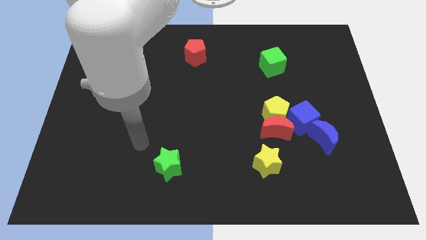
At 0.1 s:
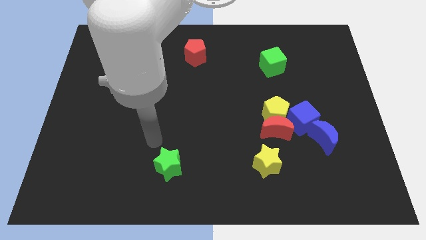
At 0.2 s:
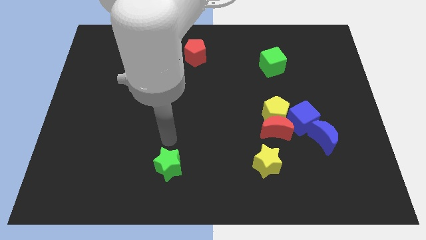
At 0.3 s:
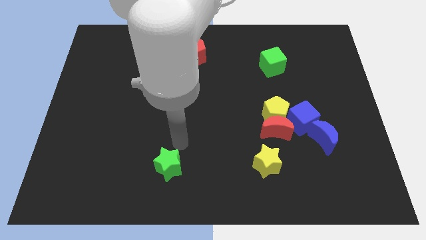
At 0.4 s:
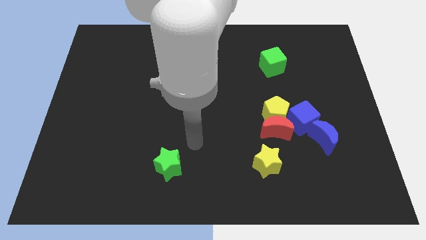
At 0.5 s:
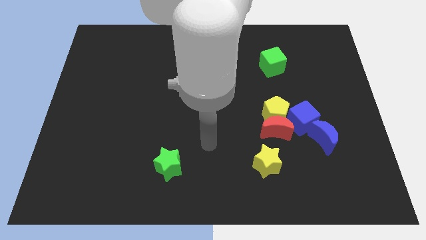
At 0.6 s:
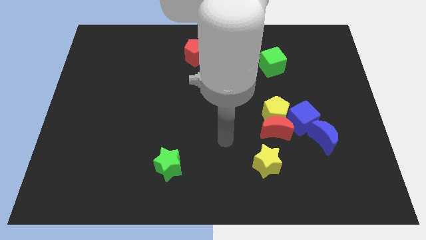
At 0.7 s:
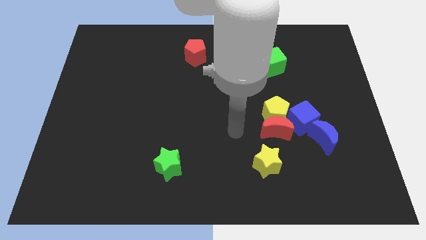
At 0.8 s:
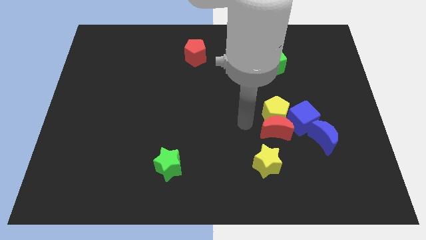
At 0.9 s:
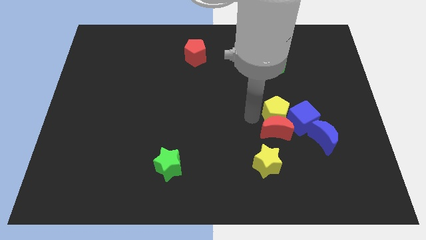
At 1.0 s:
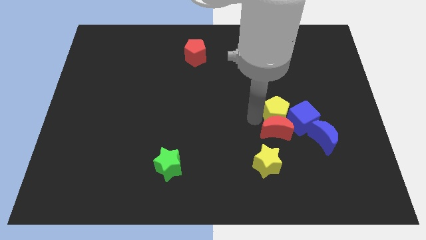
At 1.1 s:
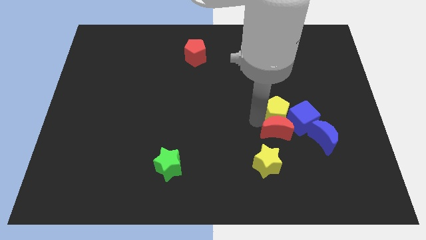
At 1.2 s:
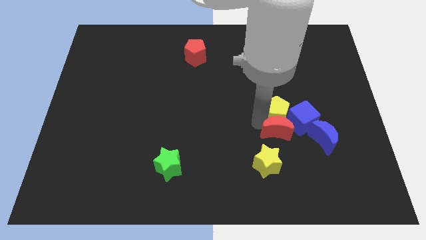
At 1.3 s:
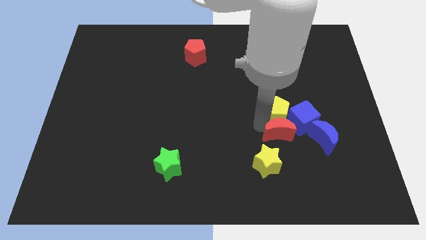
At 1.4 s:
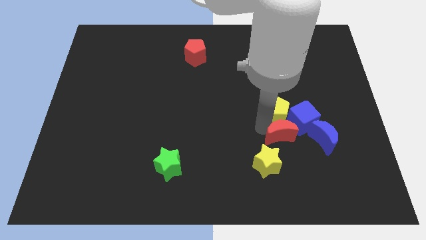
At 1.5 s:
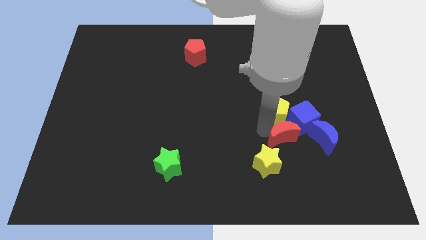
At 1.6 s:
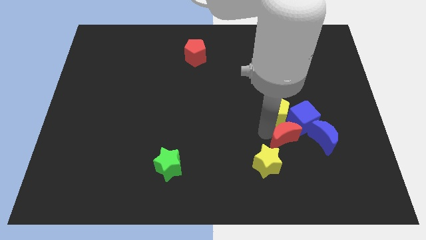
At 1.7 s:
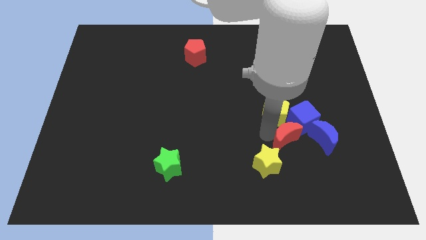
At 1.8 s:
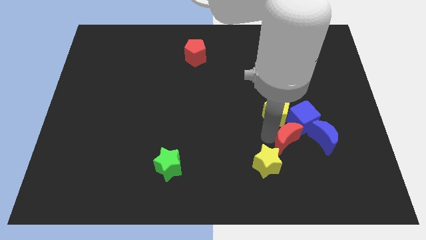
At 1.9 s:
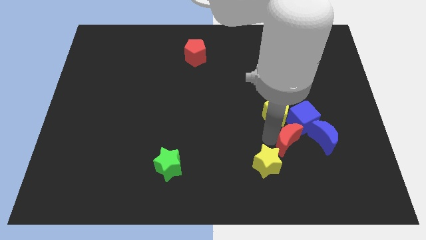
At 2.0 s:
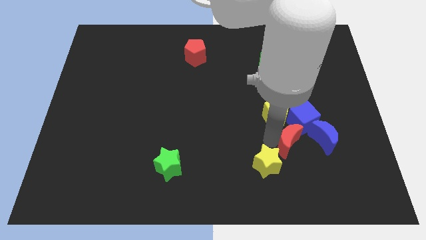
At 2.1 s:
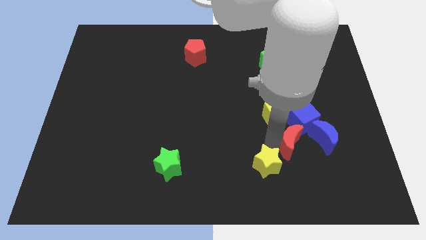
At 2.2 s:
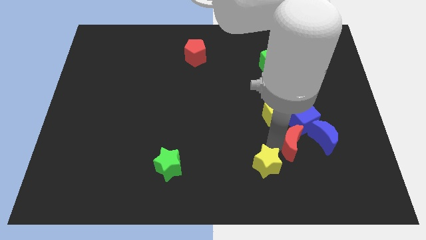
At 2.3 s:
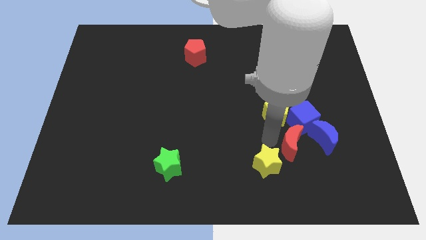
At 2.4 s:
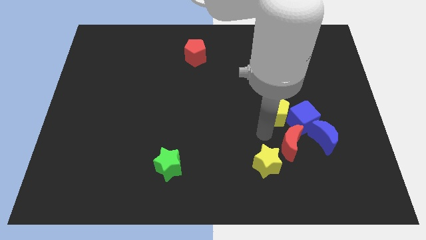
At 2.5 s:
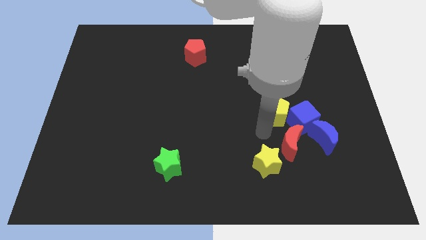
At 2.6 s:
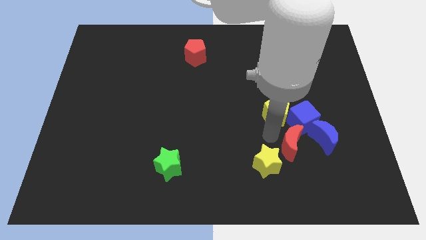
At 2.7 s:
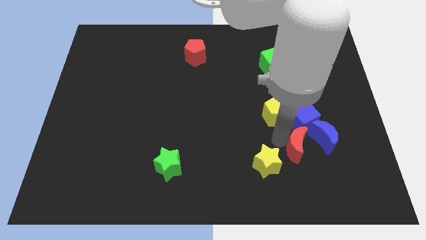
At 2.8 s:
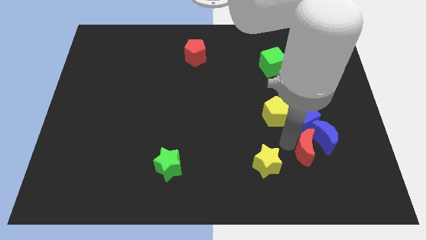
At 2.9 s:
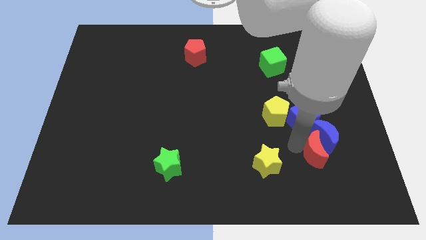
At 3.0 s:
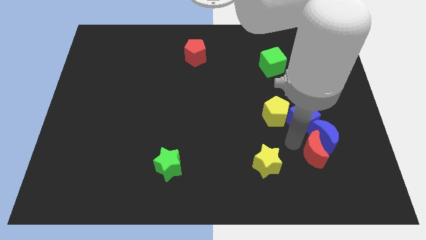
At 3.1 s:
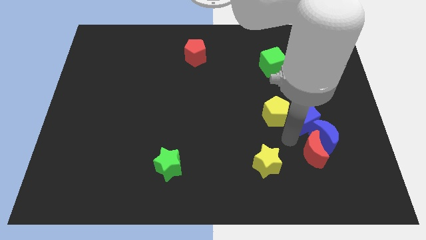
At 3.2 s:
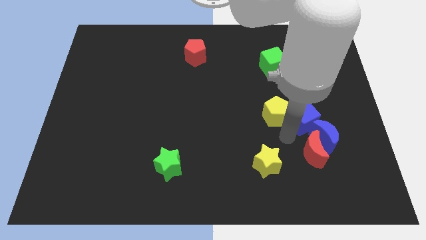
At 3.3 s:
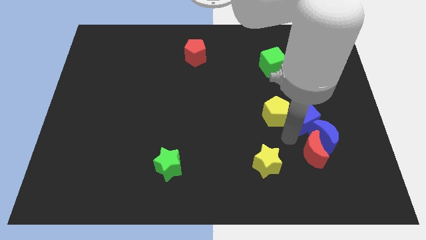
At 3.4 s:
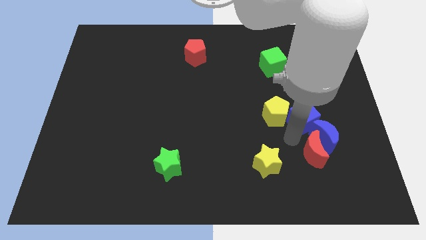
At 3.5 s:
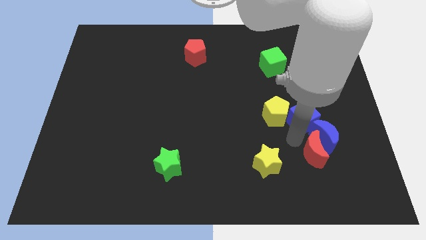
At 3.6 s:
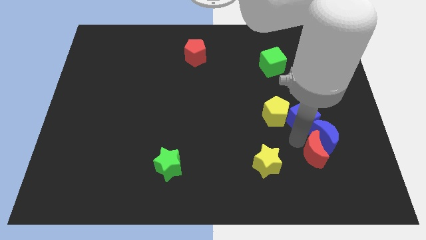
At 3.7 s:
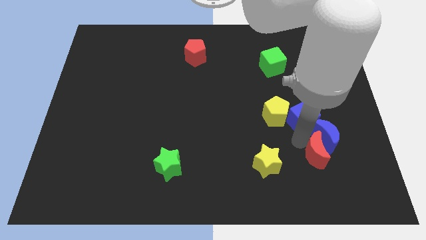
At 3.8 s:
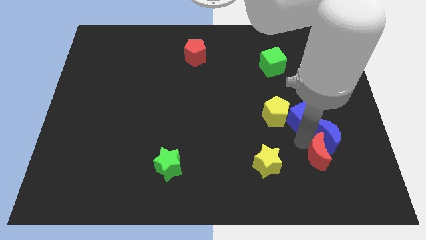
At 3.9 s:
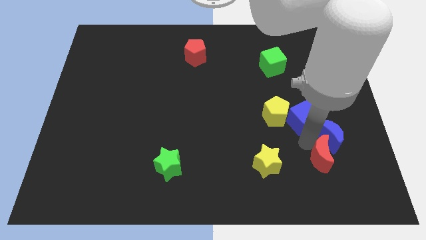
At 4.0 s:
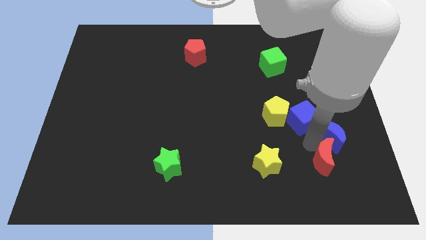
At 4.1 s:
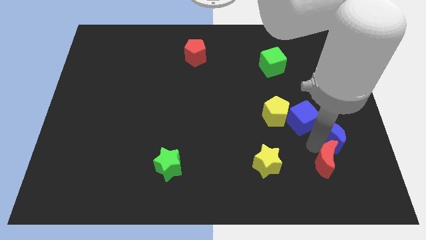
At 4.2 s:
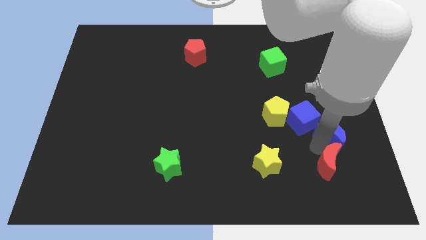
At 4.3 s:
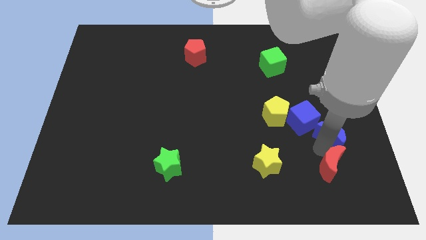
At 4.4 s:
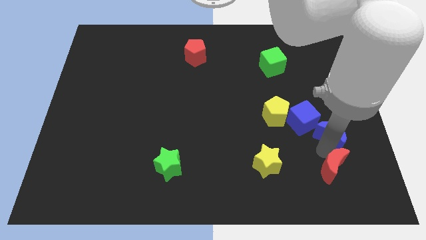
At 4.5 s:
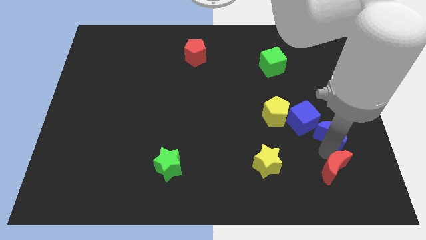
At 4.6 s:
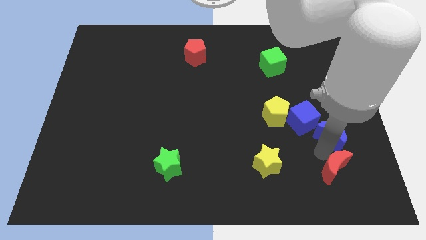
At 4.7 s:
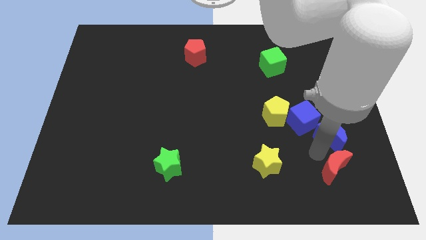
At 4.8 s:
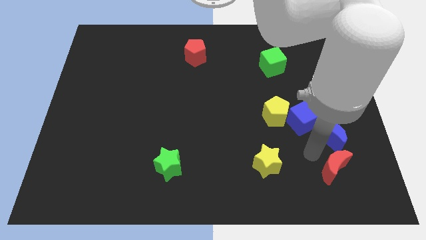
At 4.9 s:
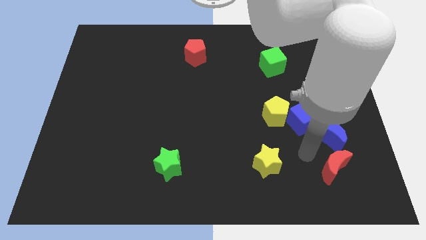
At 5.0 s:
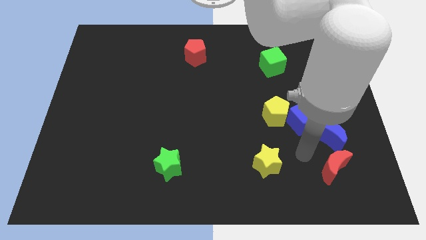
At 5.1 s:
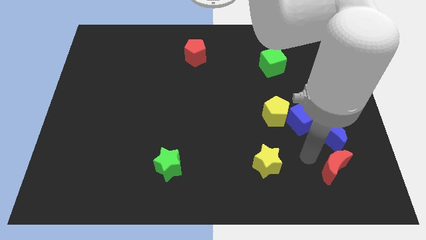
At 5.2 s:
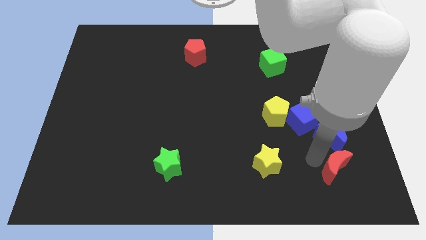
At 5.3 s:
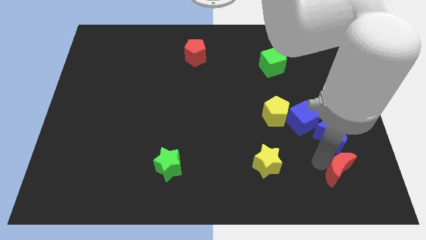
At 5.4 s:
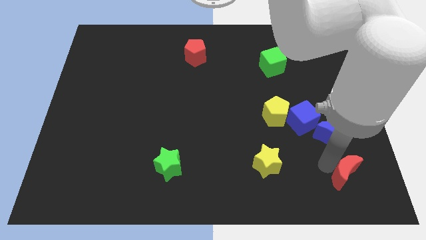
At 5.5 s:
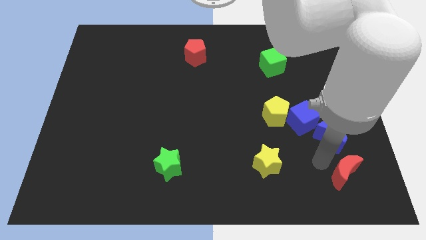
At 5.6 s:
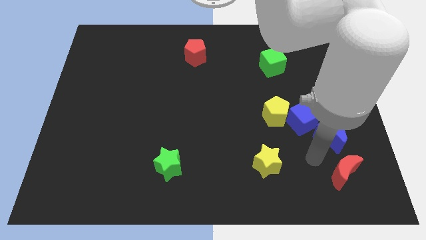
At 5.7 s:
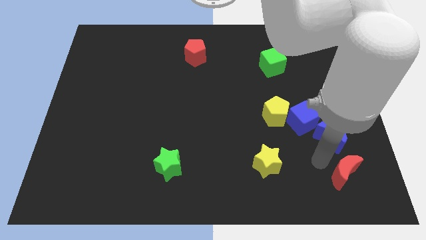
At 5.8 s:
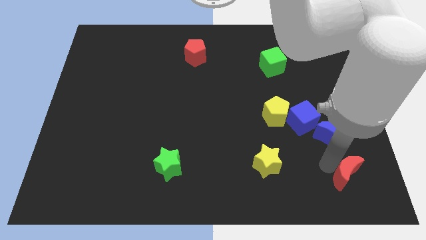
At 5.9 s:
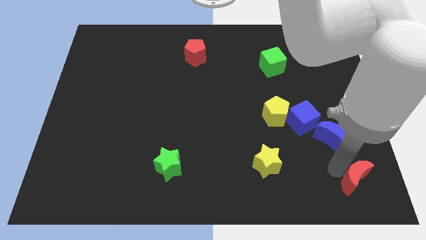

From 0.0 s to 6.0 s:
push the red moon to the lower right corner
